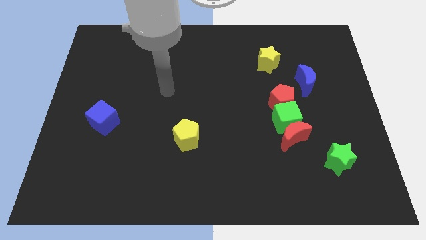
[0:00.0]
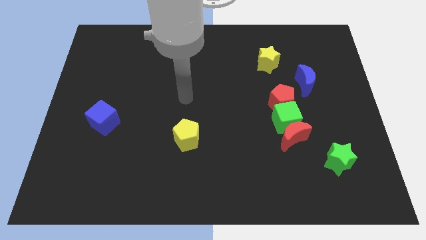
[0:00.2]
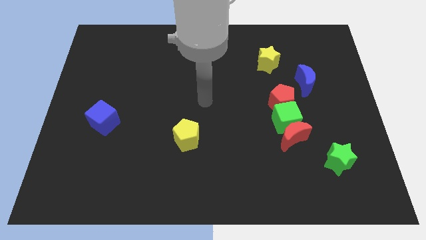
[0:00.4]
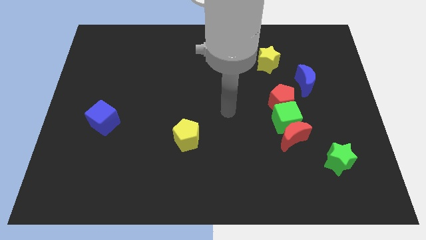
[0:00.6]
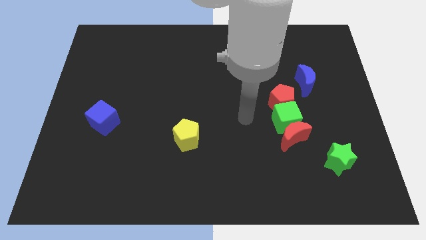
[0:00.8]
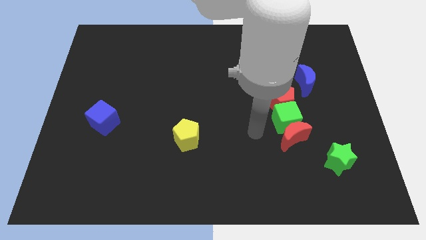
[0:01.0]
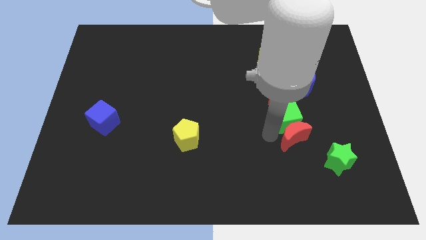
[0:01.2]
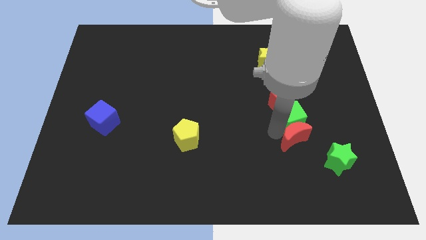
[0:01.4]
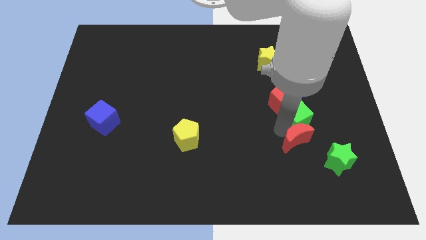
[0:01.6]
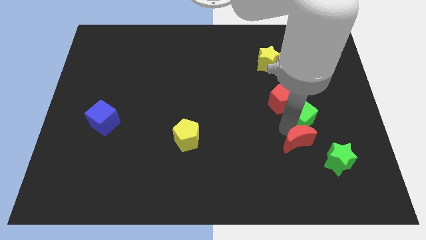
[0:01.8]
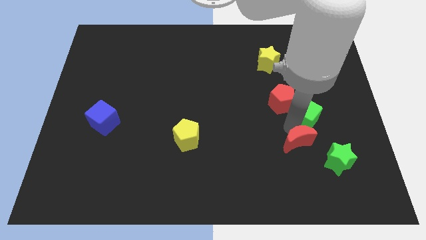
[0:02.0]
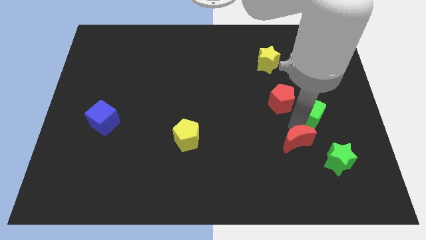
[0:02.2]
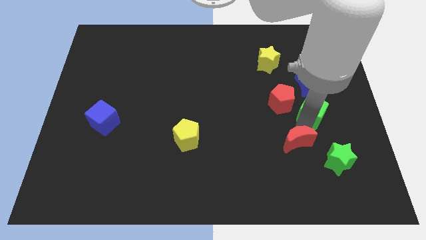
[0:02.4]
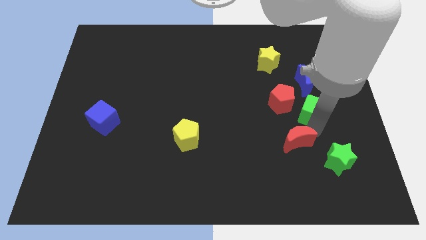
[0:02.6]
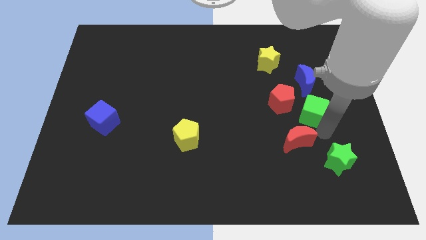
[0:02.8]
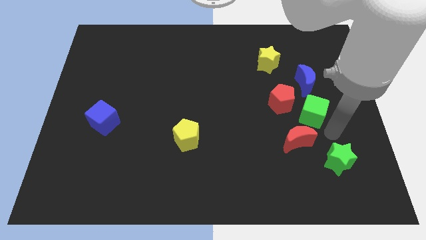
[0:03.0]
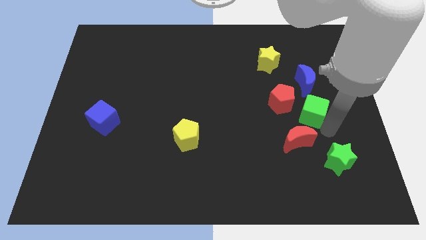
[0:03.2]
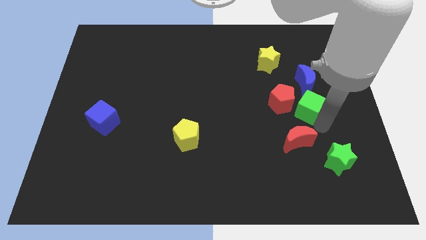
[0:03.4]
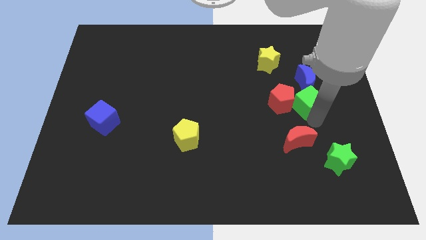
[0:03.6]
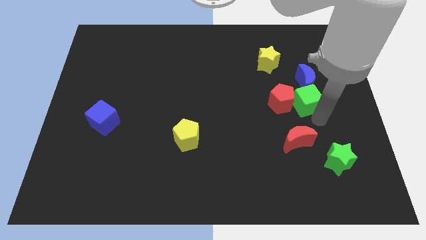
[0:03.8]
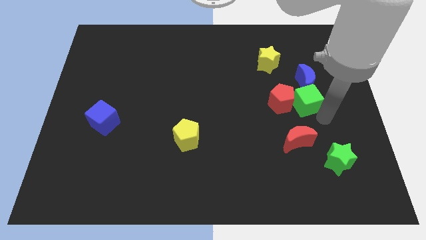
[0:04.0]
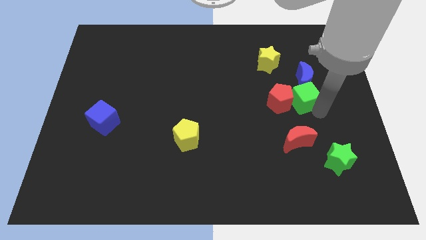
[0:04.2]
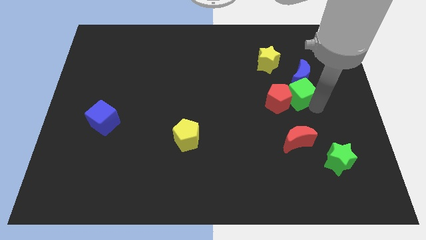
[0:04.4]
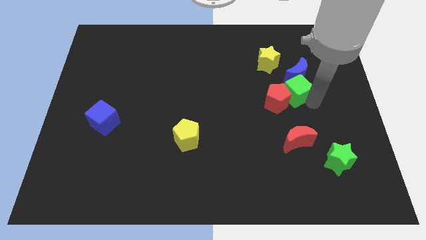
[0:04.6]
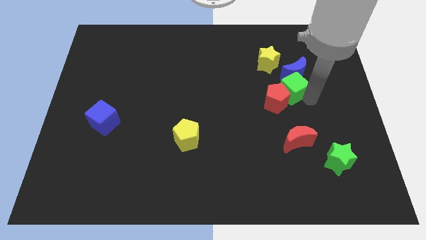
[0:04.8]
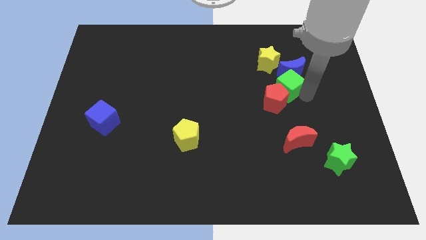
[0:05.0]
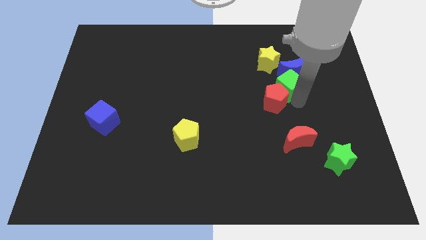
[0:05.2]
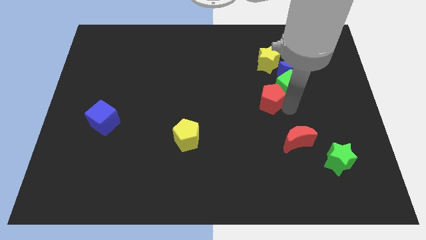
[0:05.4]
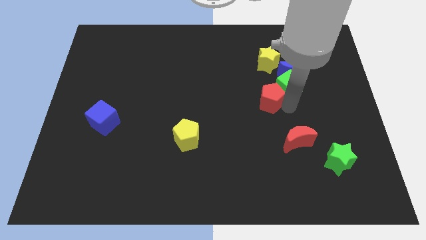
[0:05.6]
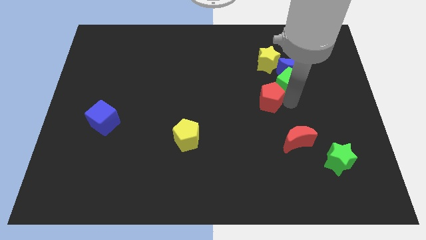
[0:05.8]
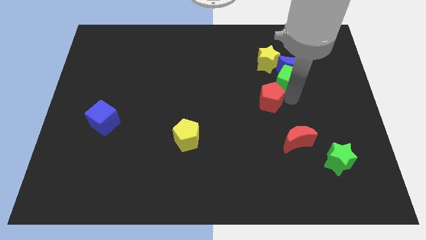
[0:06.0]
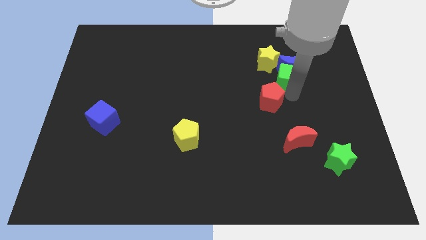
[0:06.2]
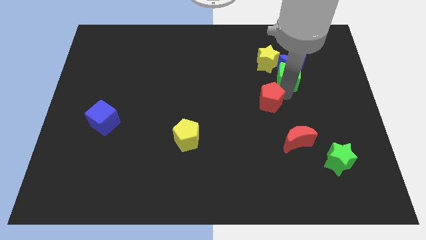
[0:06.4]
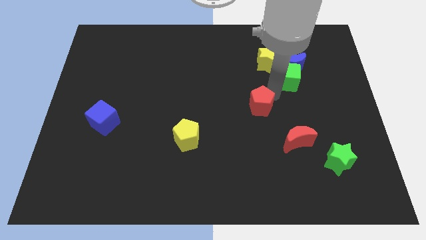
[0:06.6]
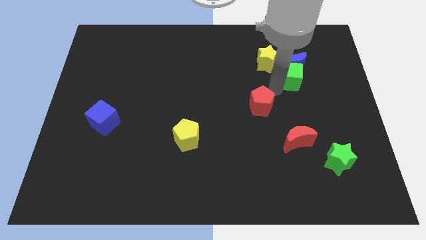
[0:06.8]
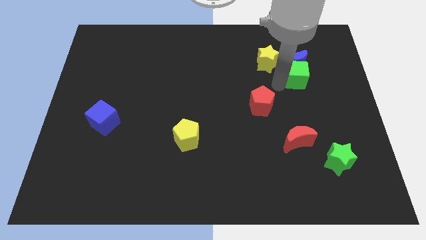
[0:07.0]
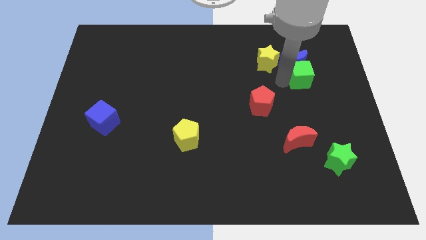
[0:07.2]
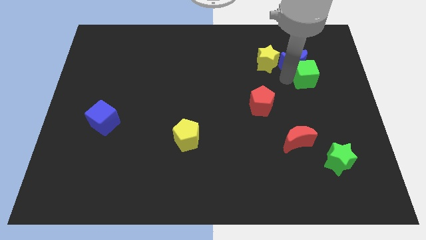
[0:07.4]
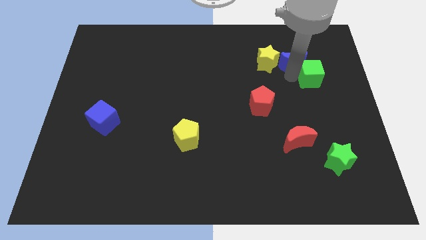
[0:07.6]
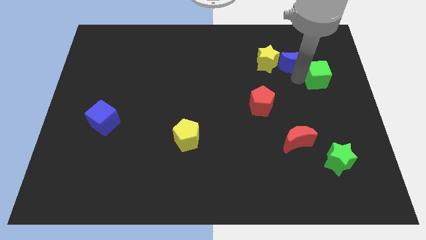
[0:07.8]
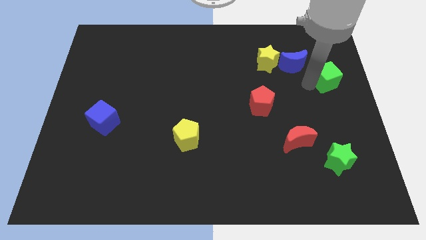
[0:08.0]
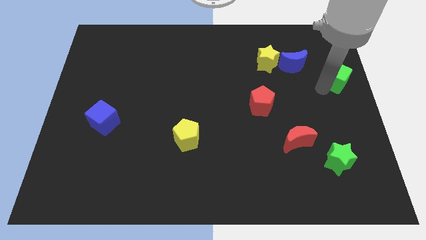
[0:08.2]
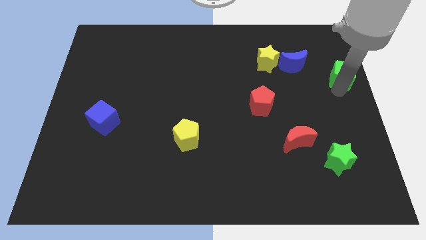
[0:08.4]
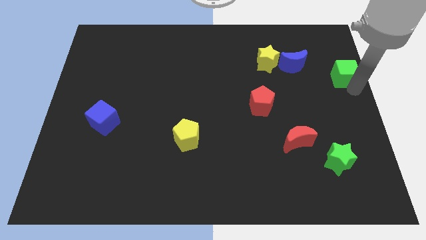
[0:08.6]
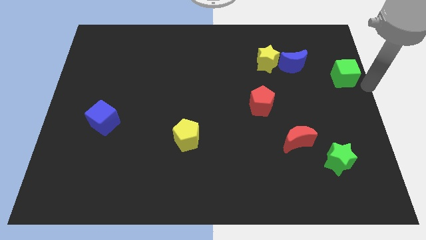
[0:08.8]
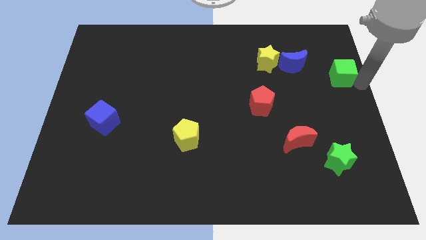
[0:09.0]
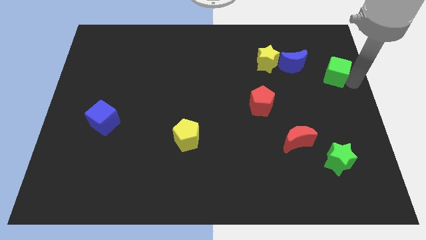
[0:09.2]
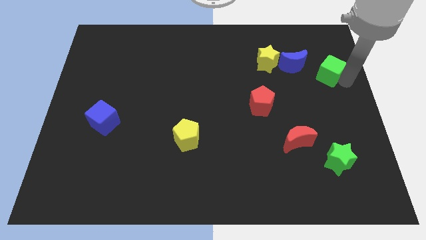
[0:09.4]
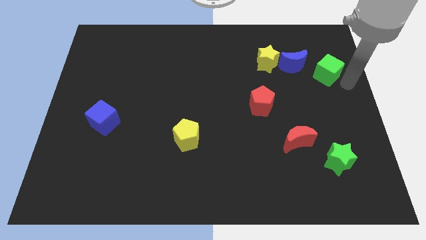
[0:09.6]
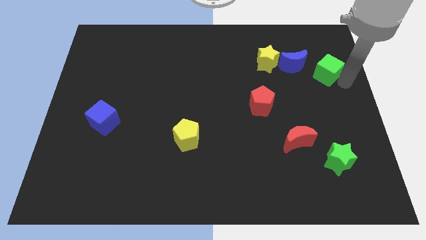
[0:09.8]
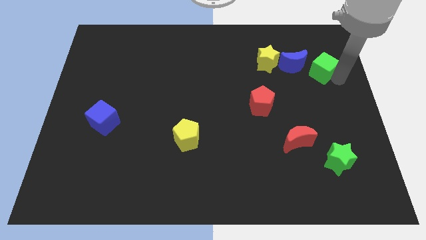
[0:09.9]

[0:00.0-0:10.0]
slide the green cube right of the yellow star

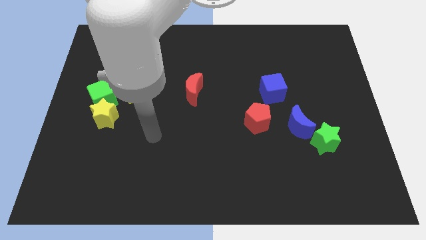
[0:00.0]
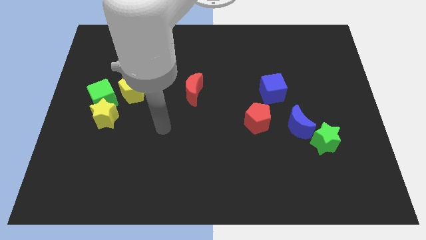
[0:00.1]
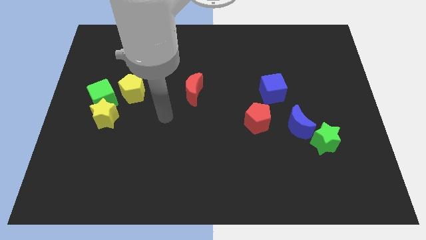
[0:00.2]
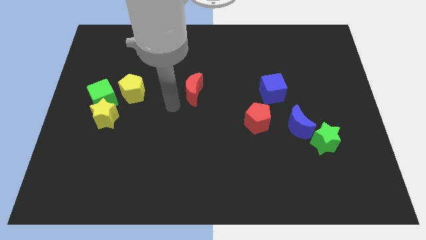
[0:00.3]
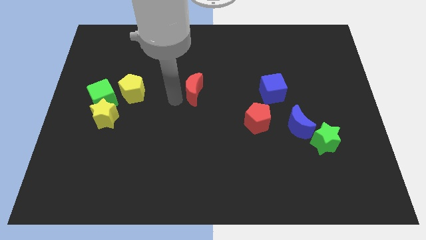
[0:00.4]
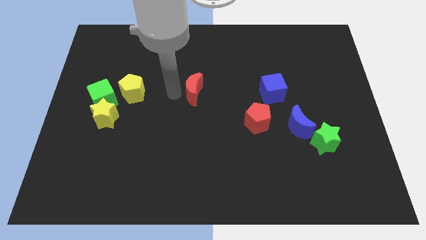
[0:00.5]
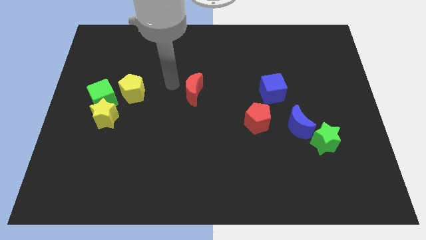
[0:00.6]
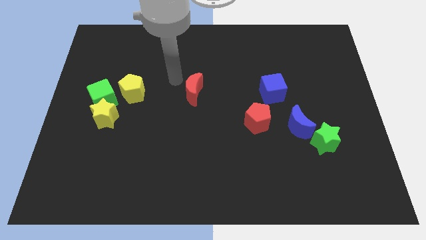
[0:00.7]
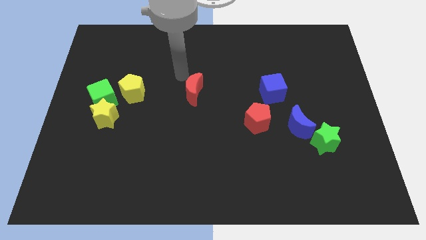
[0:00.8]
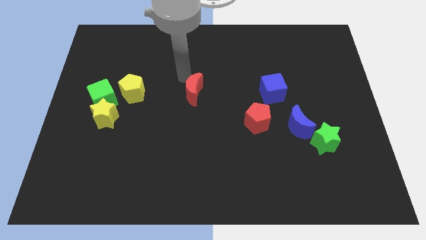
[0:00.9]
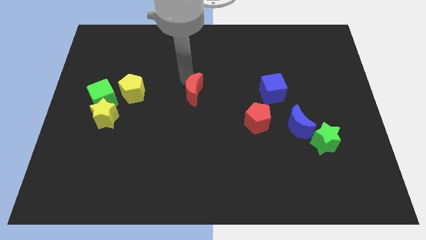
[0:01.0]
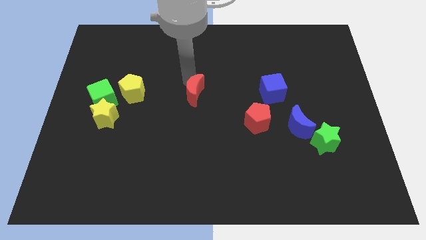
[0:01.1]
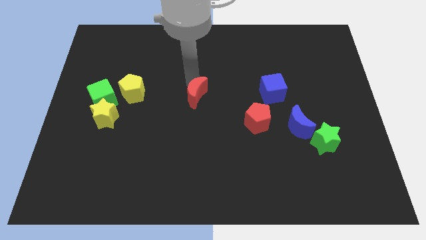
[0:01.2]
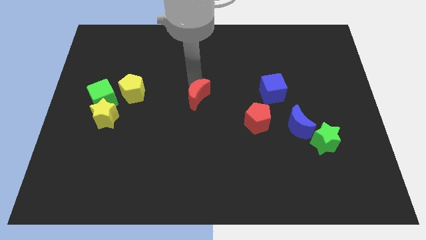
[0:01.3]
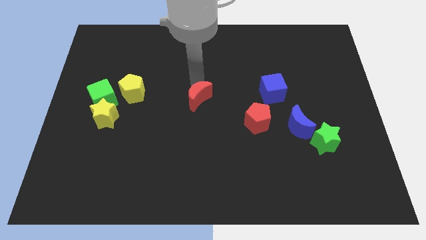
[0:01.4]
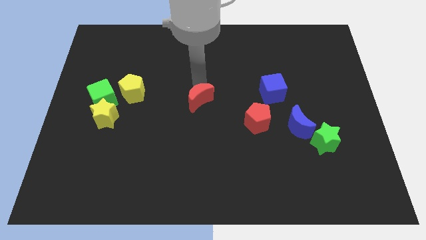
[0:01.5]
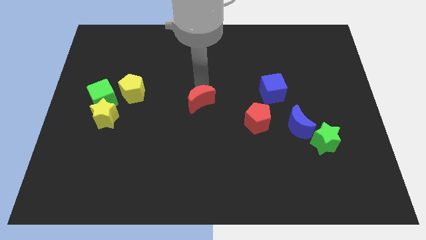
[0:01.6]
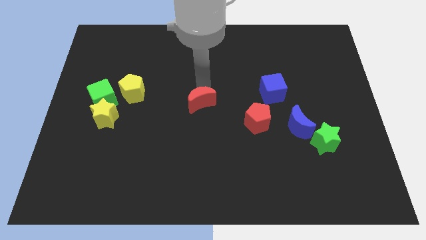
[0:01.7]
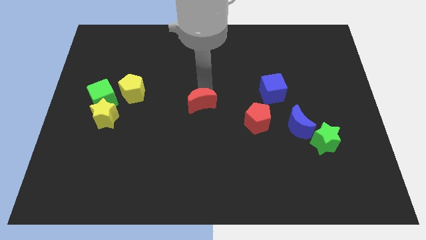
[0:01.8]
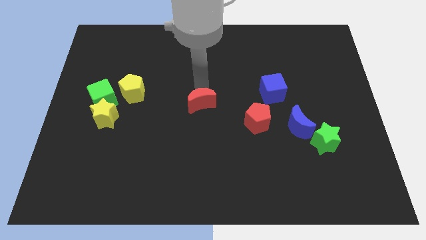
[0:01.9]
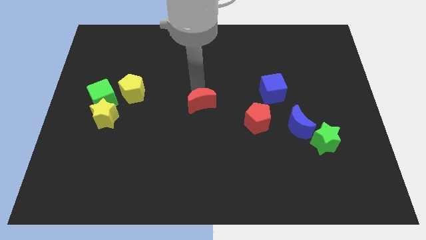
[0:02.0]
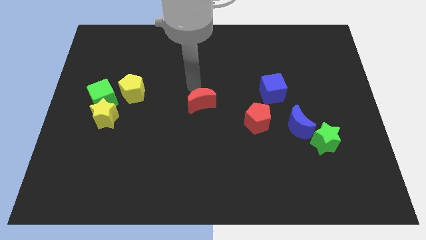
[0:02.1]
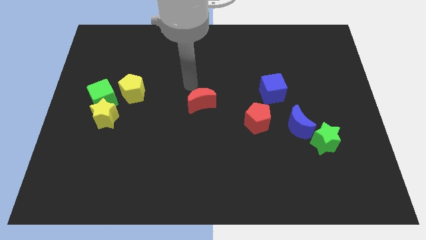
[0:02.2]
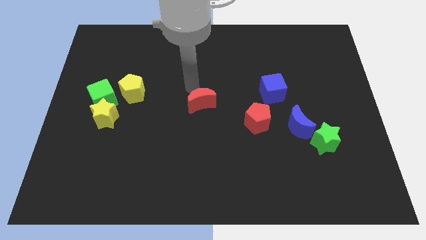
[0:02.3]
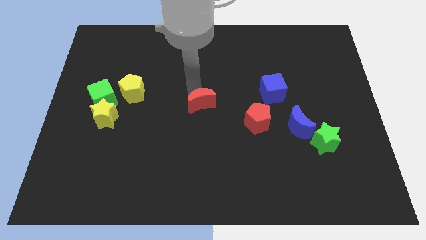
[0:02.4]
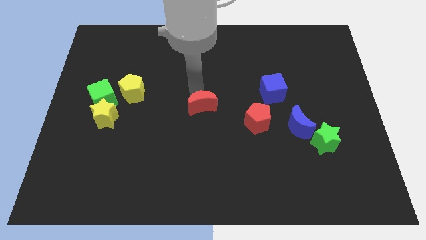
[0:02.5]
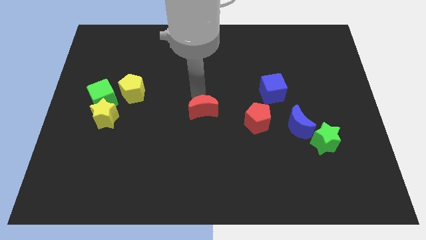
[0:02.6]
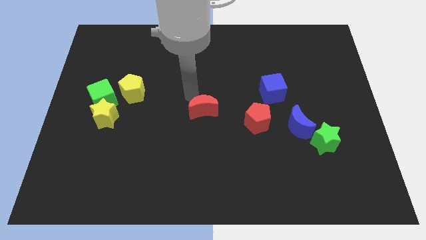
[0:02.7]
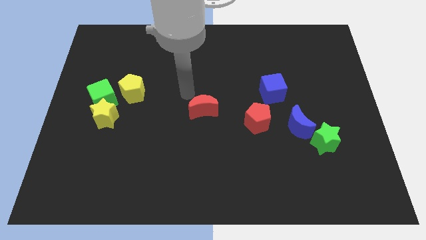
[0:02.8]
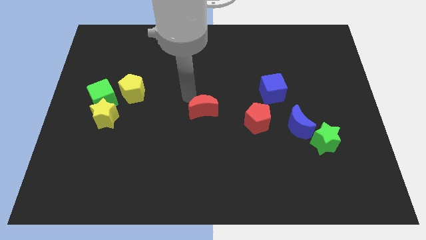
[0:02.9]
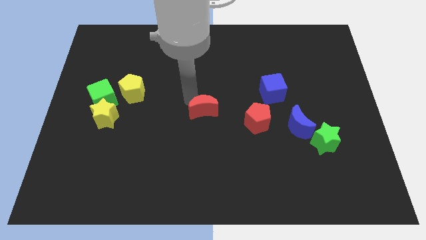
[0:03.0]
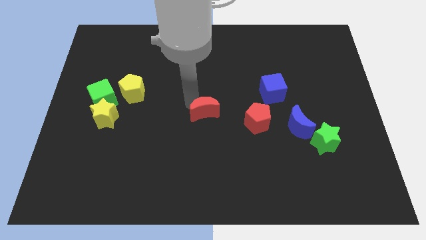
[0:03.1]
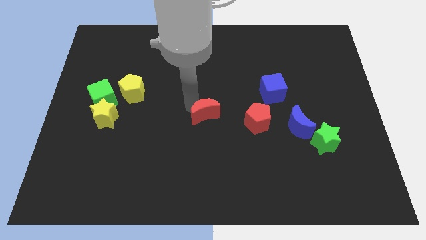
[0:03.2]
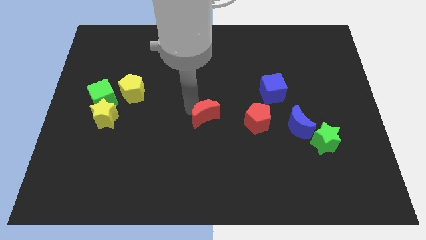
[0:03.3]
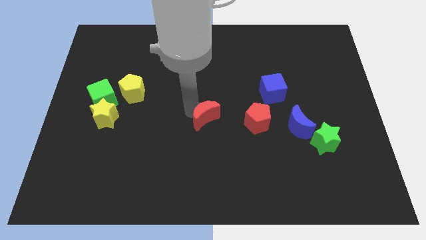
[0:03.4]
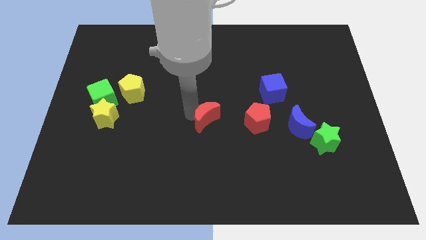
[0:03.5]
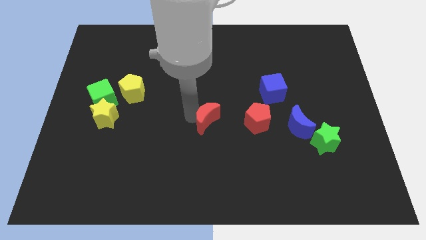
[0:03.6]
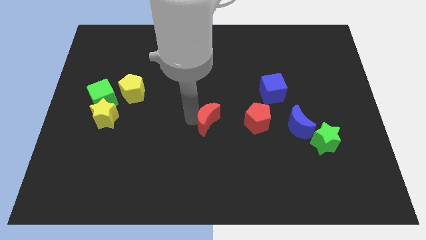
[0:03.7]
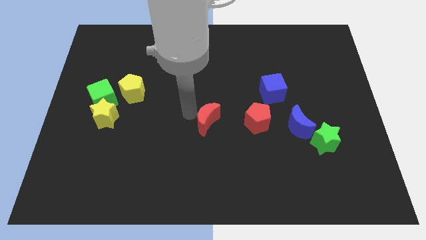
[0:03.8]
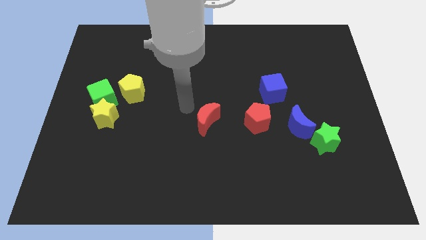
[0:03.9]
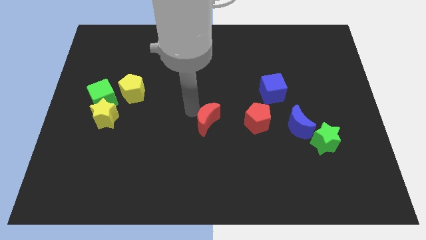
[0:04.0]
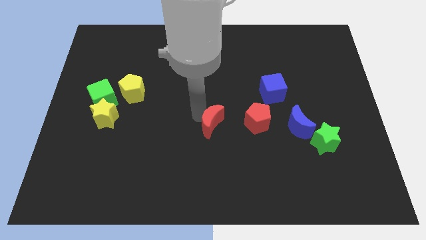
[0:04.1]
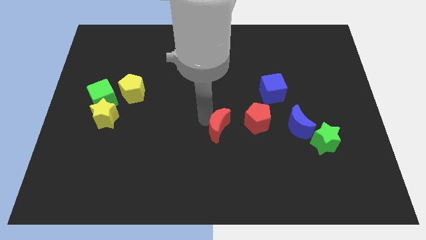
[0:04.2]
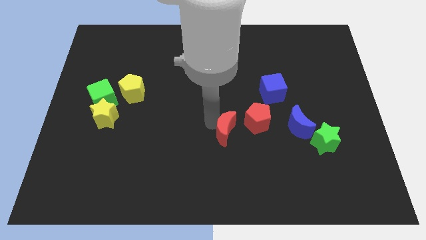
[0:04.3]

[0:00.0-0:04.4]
slide the red moon to the bottom left of the red pentagon
